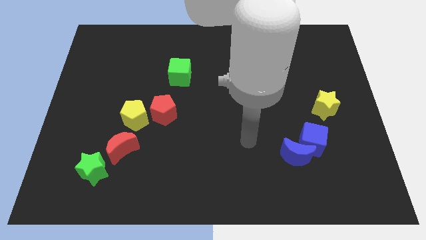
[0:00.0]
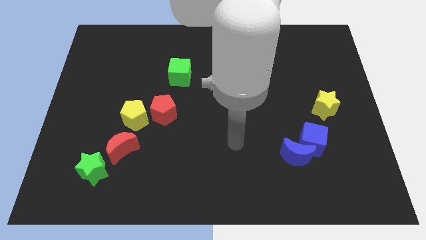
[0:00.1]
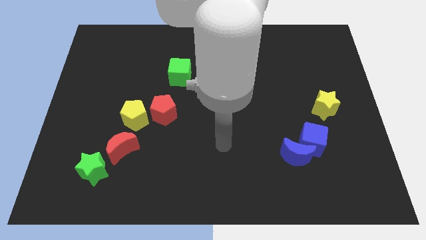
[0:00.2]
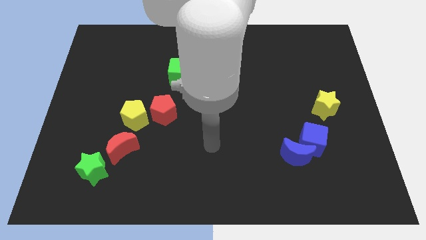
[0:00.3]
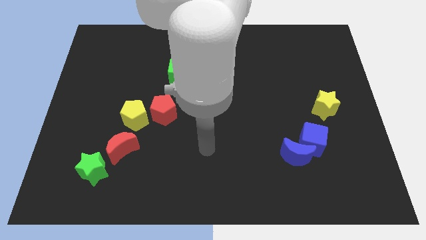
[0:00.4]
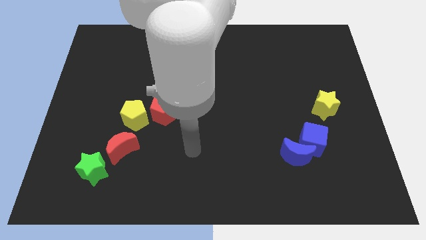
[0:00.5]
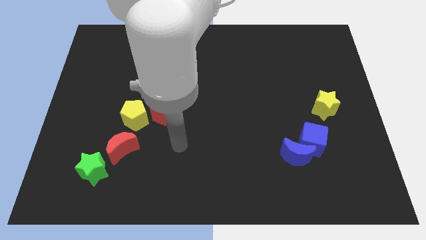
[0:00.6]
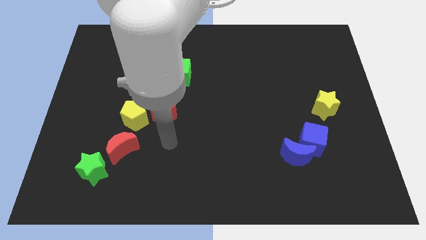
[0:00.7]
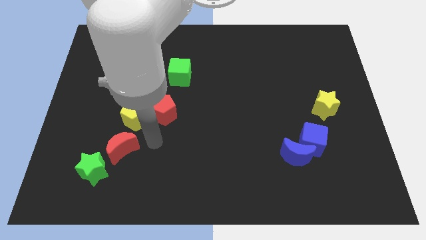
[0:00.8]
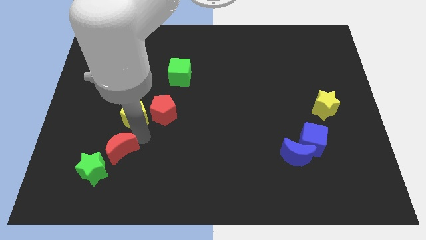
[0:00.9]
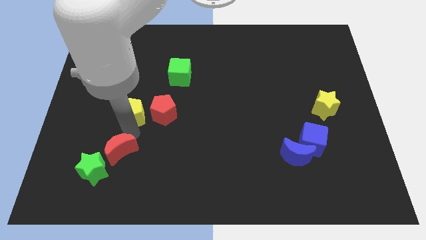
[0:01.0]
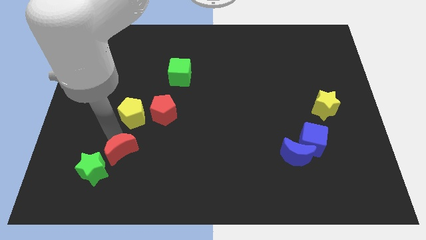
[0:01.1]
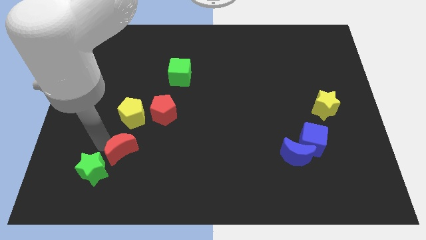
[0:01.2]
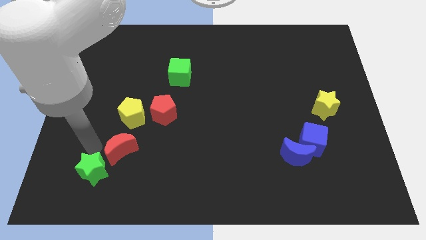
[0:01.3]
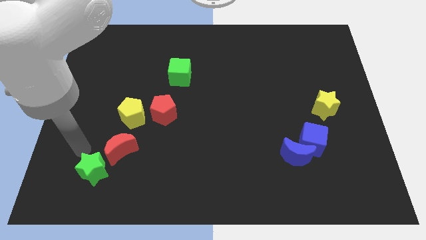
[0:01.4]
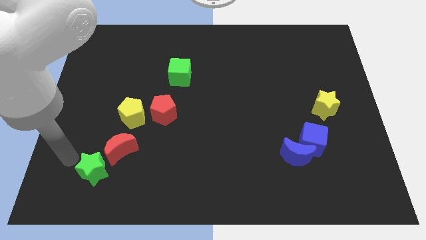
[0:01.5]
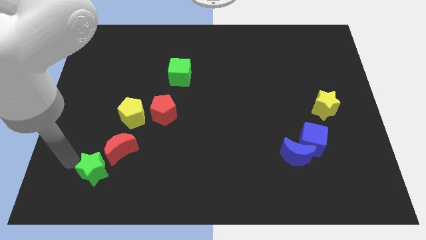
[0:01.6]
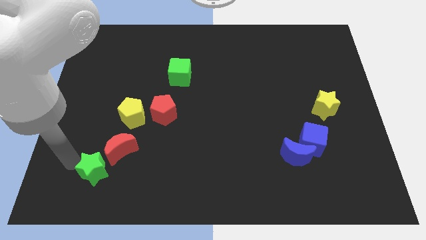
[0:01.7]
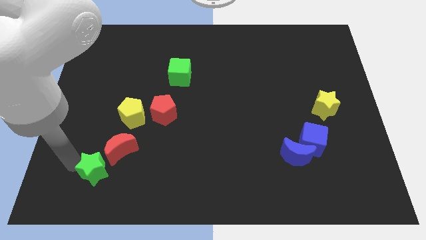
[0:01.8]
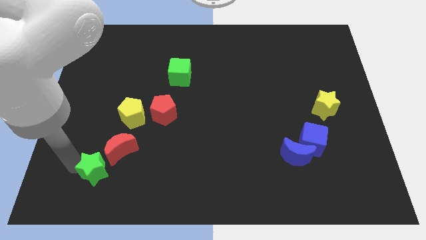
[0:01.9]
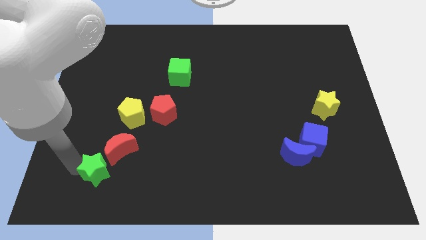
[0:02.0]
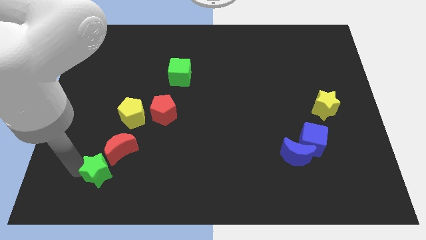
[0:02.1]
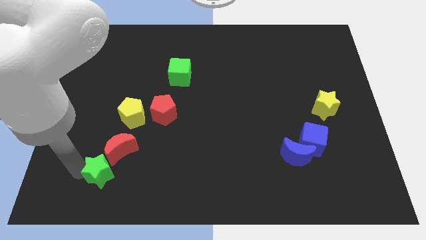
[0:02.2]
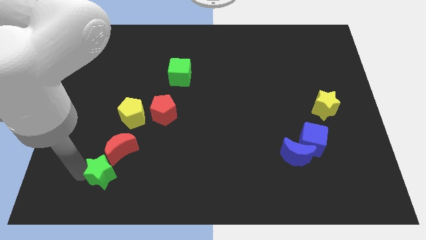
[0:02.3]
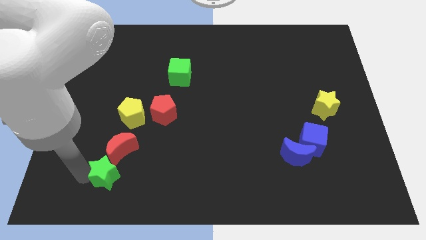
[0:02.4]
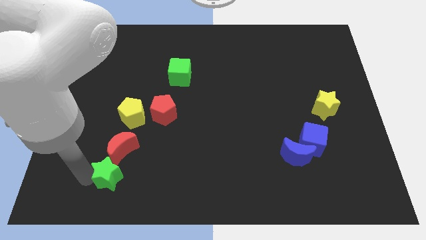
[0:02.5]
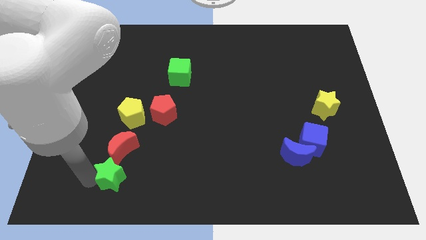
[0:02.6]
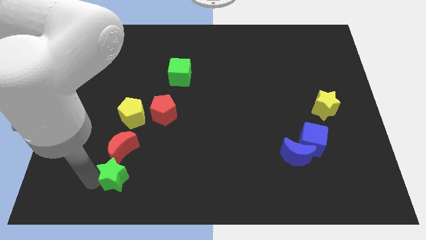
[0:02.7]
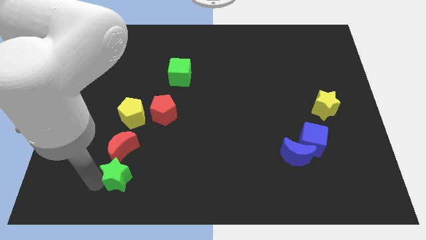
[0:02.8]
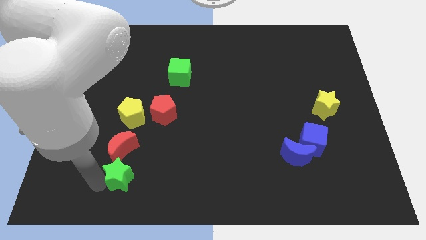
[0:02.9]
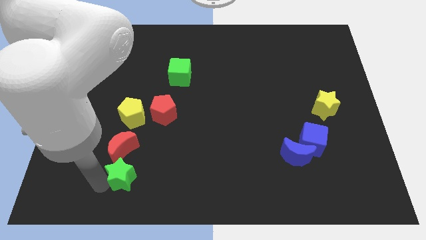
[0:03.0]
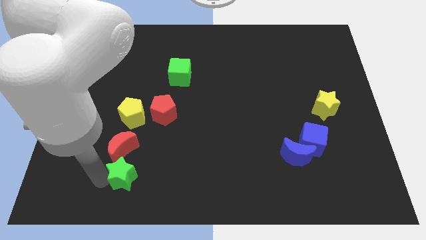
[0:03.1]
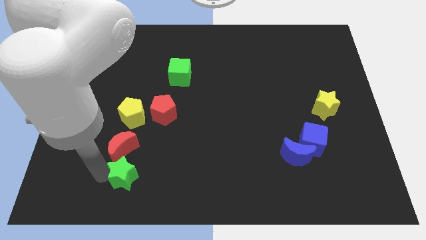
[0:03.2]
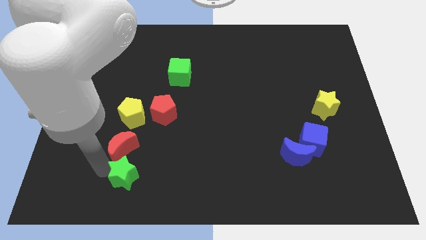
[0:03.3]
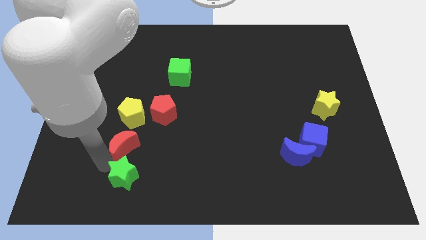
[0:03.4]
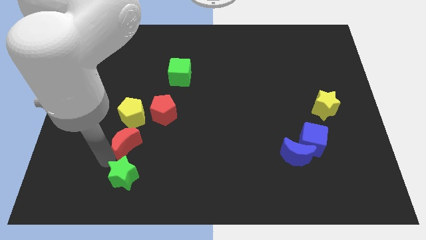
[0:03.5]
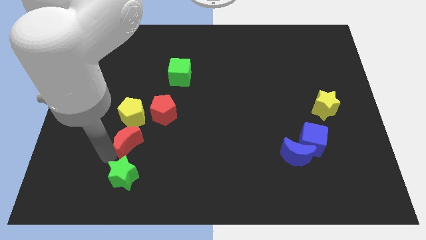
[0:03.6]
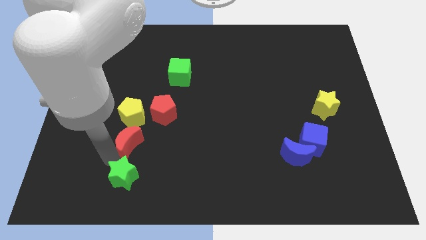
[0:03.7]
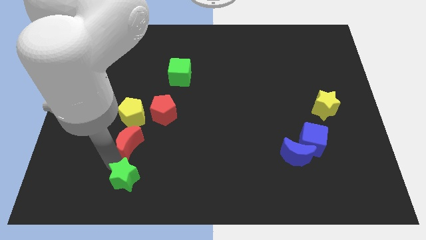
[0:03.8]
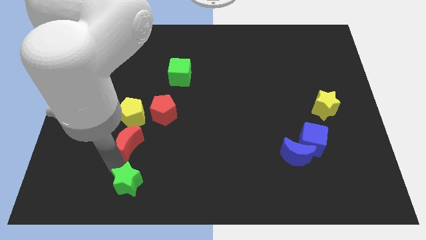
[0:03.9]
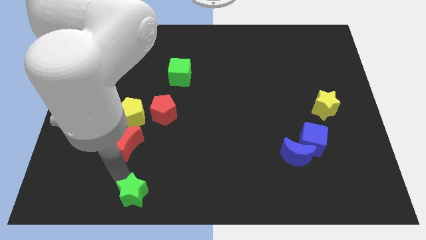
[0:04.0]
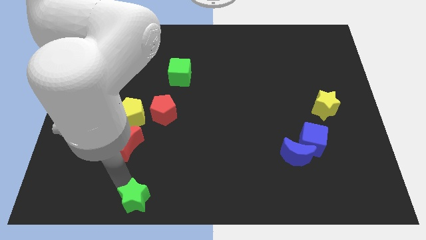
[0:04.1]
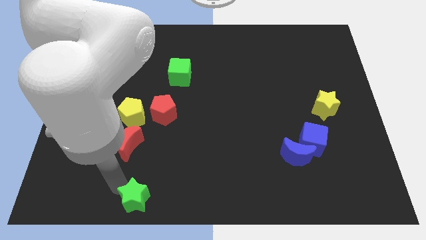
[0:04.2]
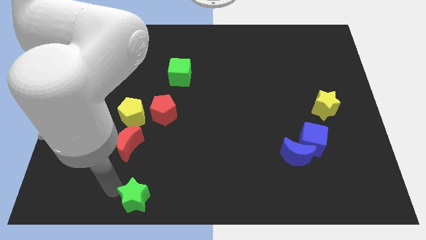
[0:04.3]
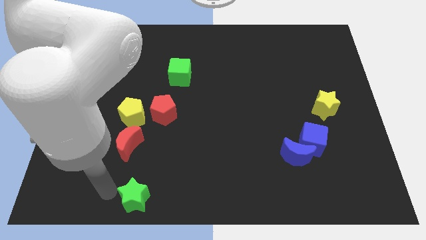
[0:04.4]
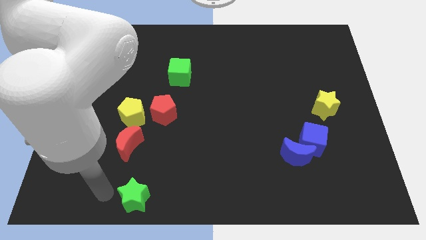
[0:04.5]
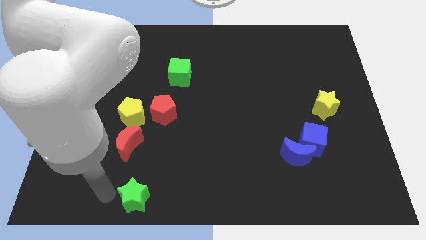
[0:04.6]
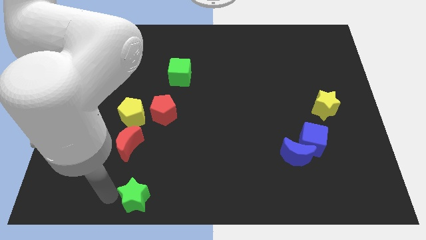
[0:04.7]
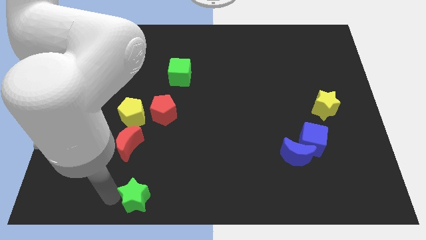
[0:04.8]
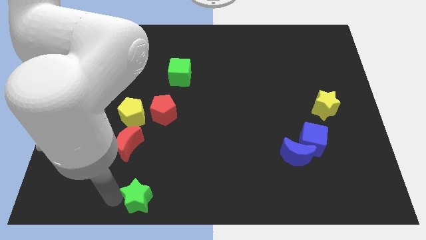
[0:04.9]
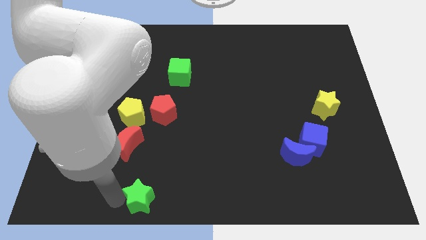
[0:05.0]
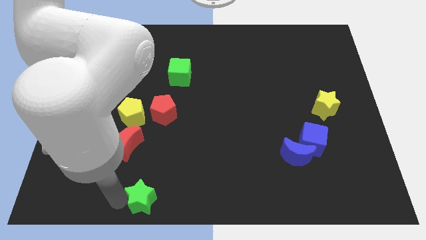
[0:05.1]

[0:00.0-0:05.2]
push the green star to the bottom

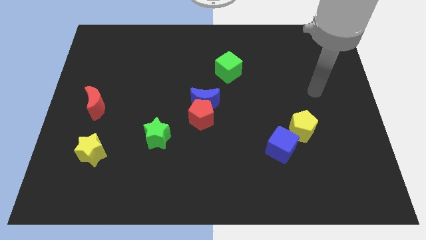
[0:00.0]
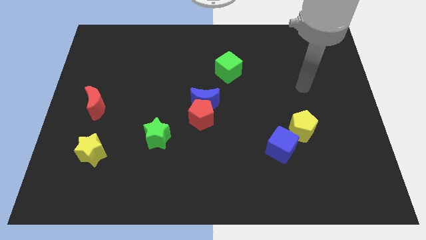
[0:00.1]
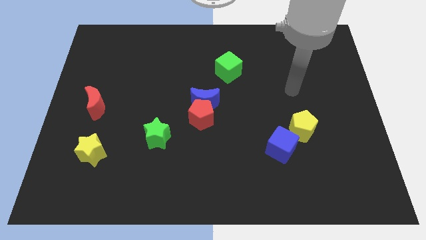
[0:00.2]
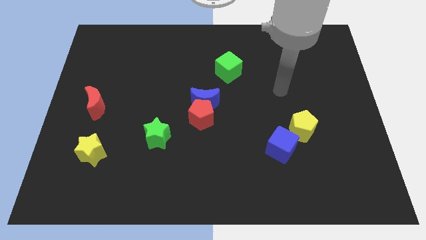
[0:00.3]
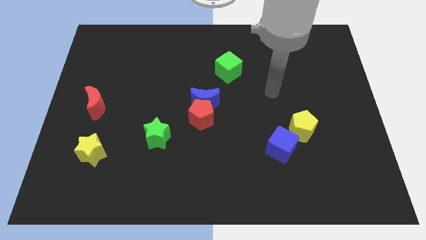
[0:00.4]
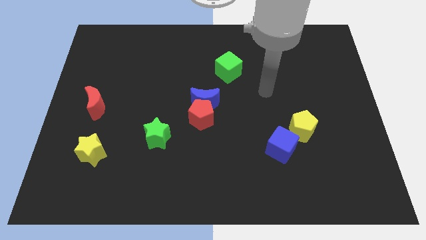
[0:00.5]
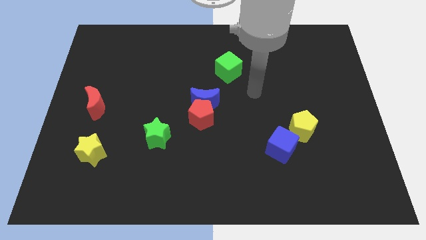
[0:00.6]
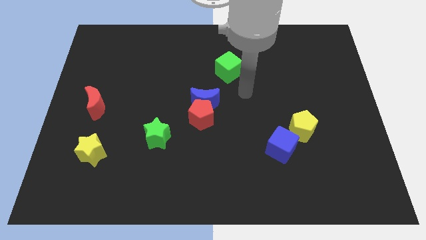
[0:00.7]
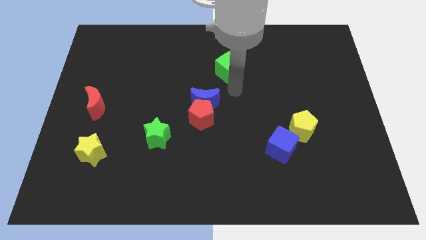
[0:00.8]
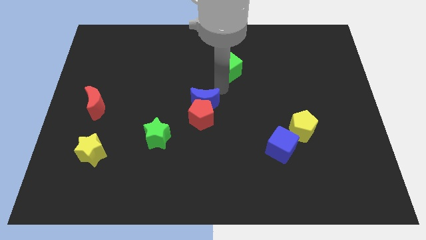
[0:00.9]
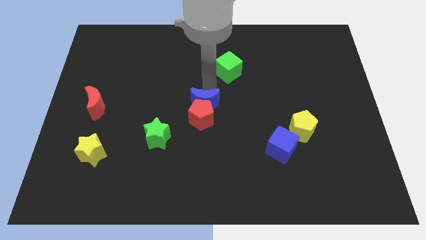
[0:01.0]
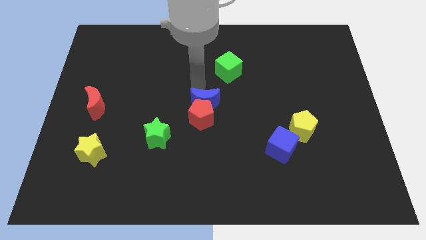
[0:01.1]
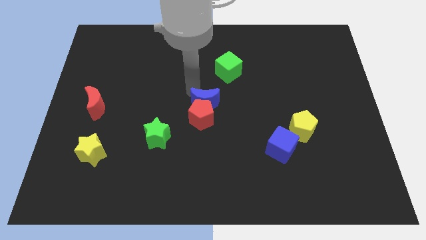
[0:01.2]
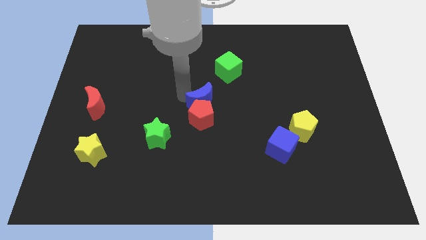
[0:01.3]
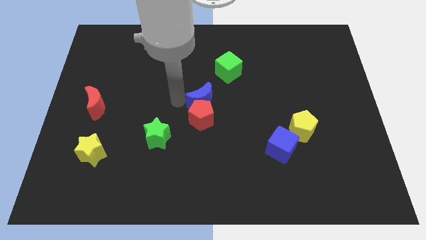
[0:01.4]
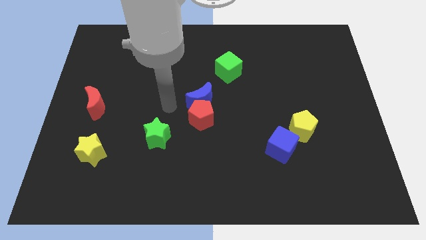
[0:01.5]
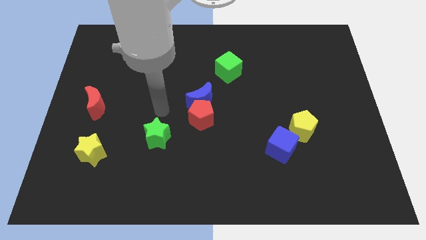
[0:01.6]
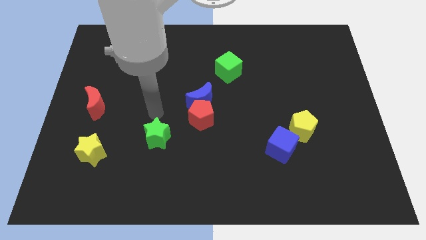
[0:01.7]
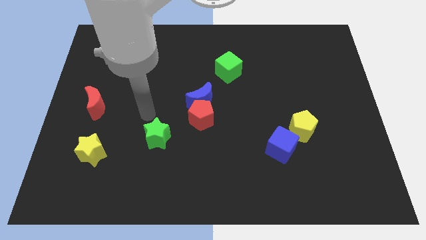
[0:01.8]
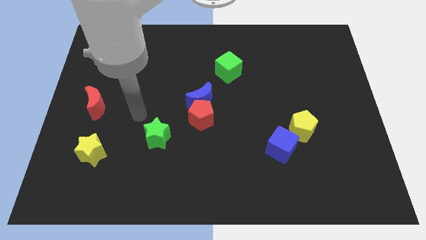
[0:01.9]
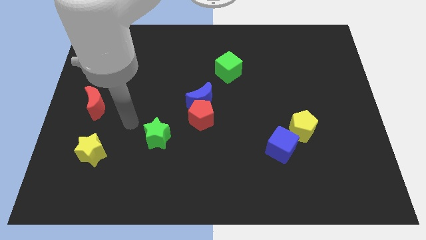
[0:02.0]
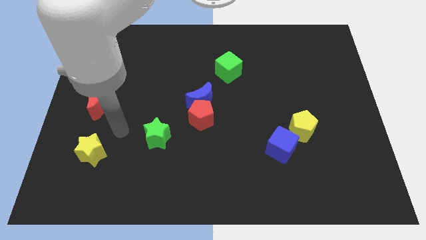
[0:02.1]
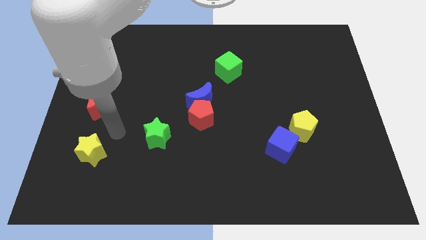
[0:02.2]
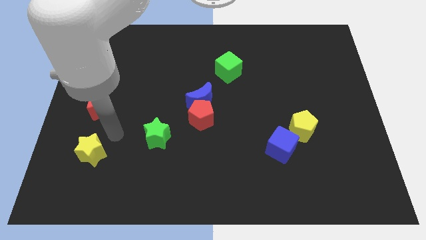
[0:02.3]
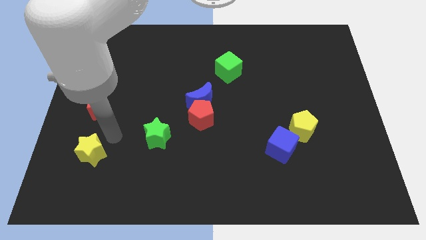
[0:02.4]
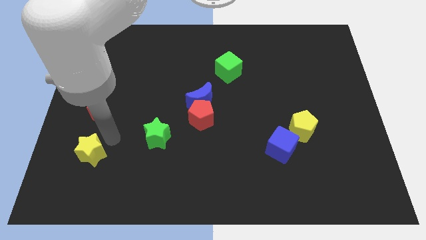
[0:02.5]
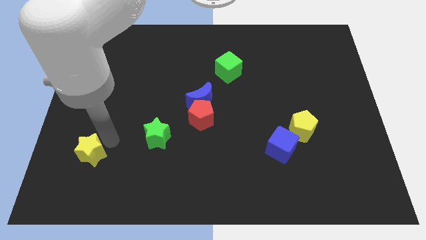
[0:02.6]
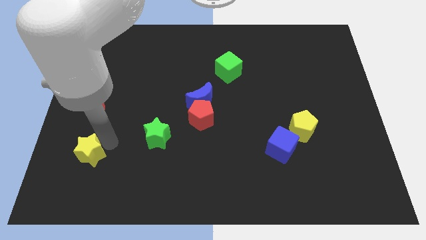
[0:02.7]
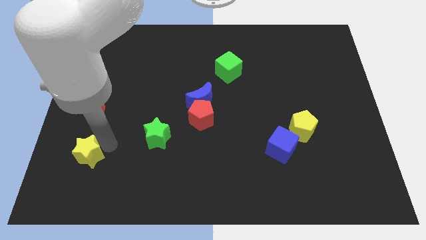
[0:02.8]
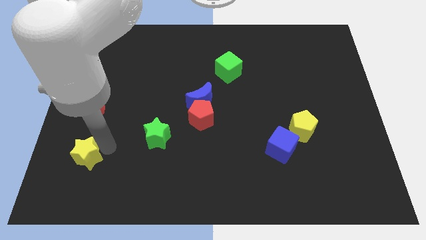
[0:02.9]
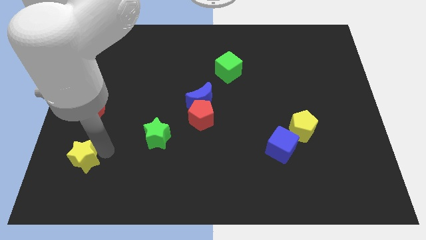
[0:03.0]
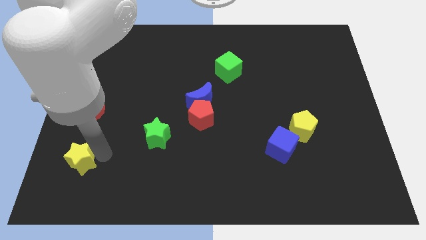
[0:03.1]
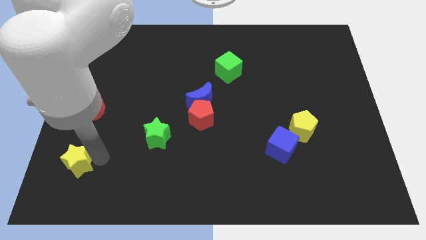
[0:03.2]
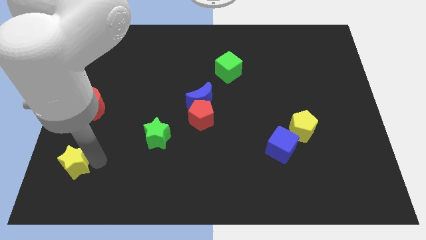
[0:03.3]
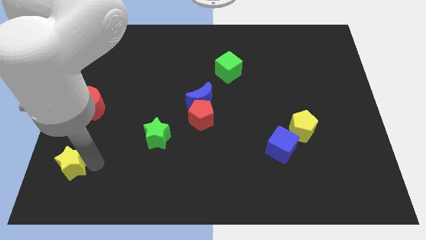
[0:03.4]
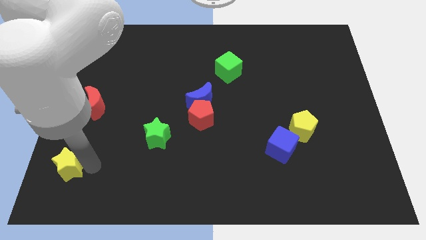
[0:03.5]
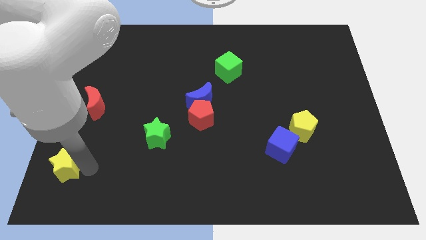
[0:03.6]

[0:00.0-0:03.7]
push the yellow star to the lower left corner
